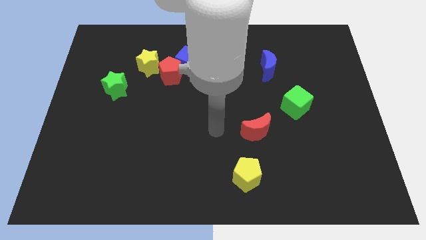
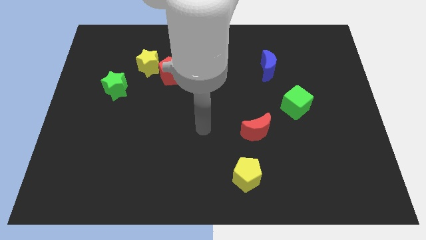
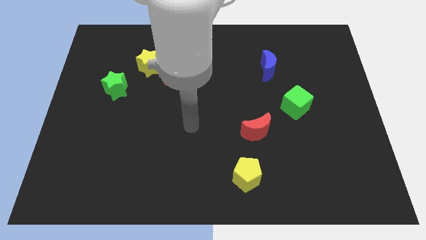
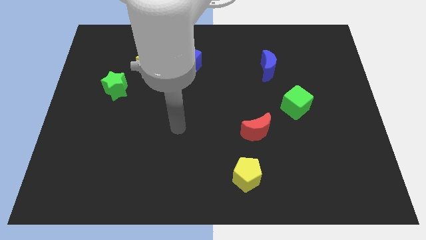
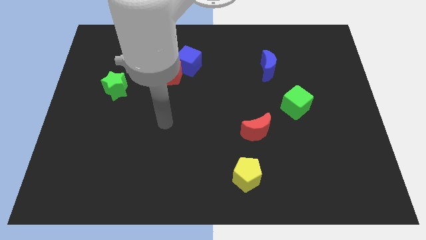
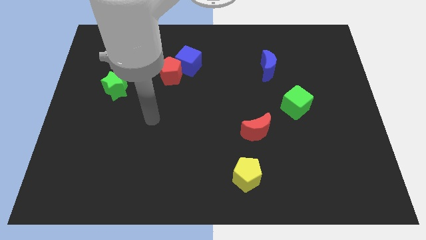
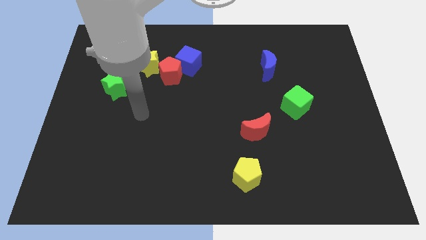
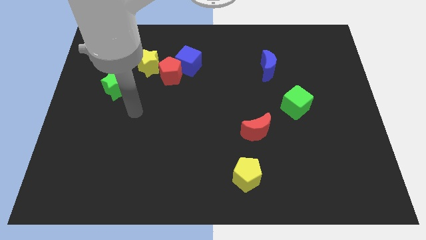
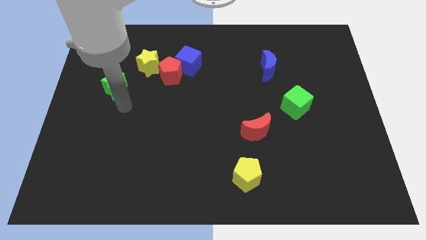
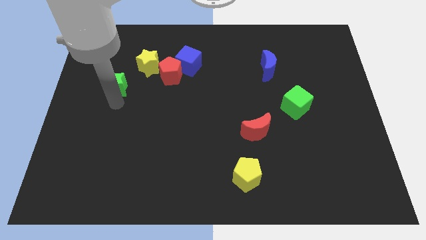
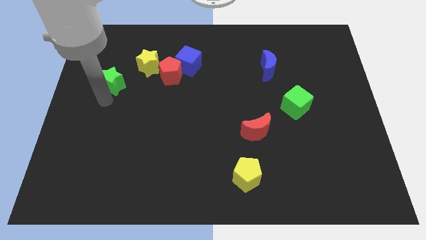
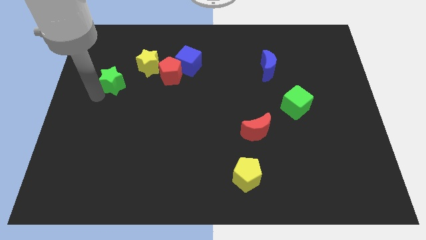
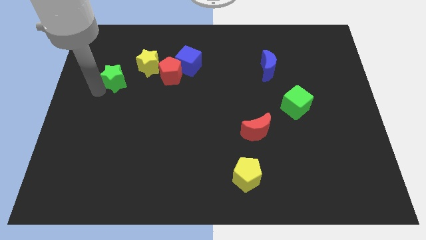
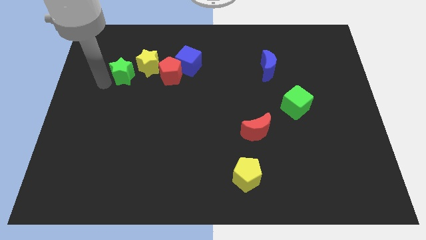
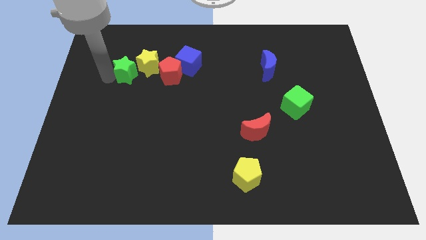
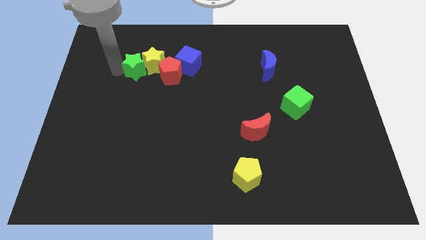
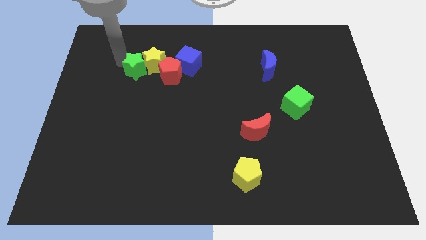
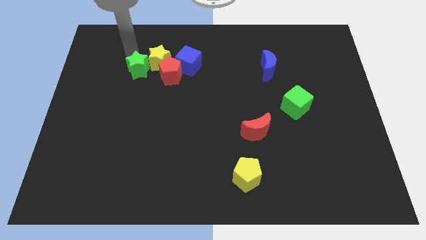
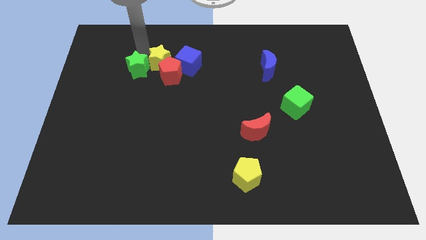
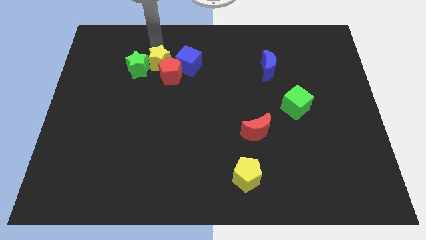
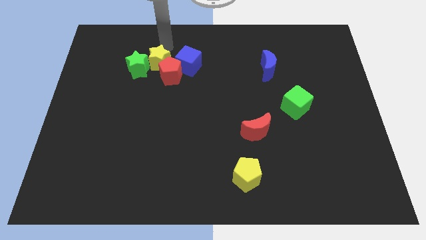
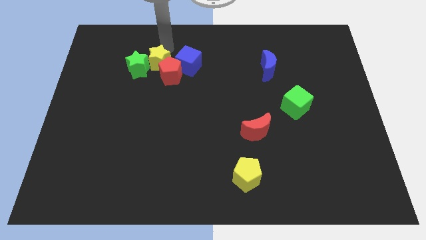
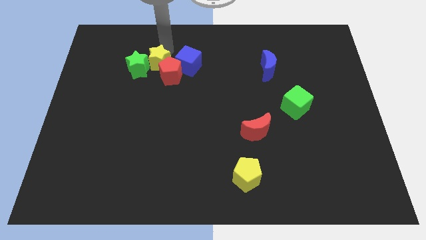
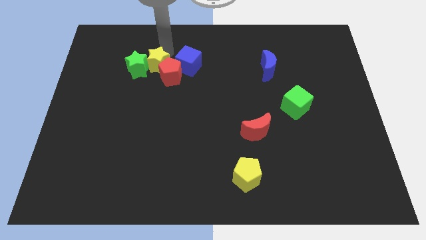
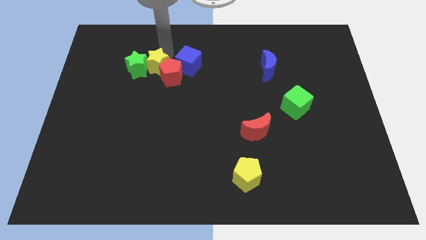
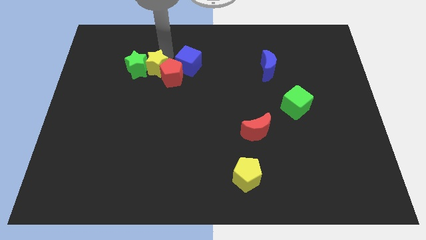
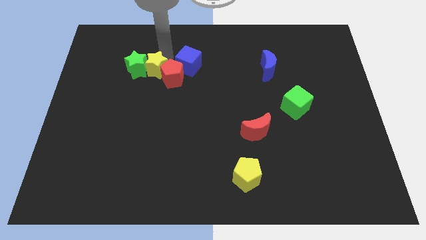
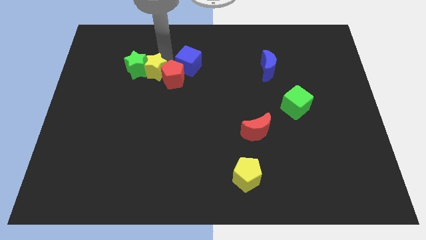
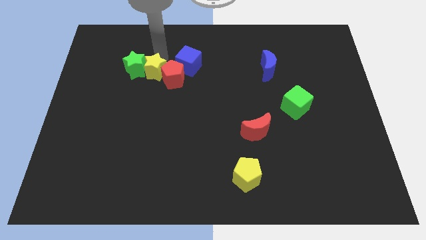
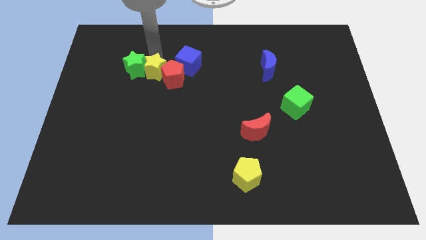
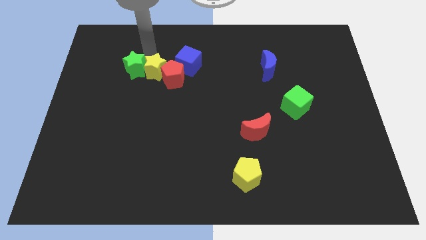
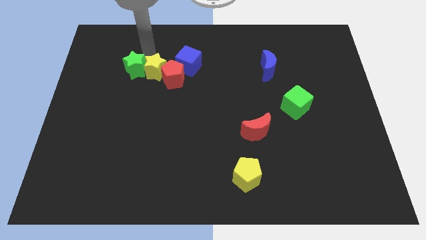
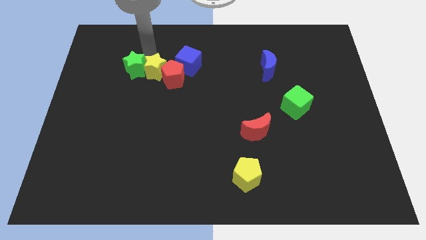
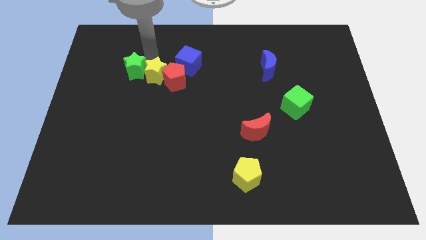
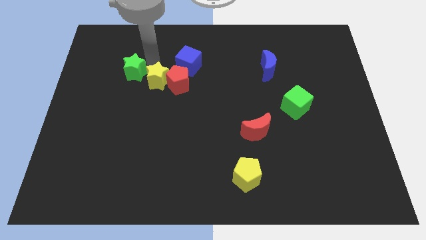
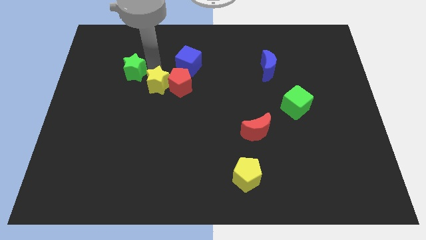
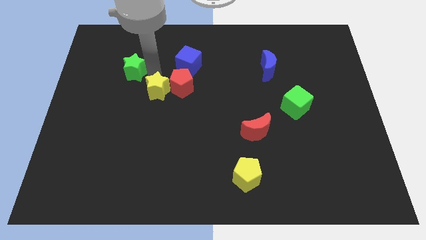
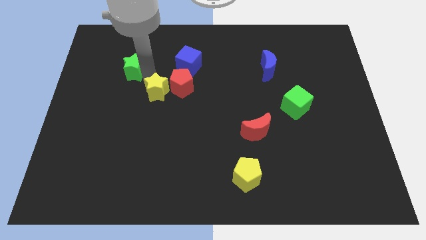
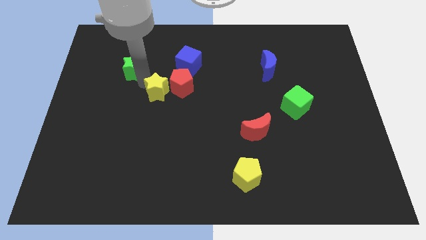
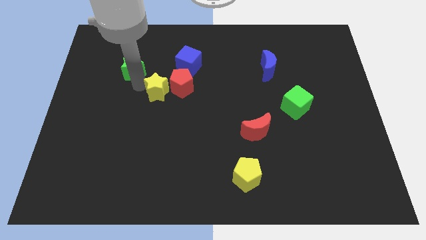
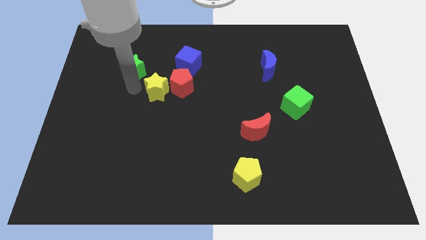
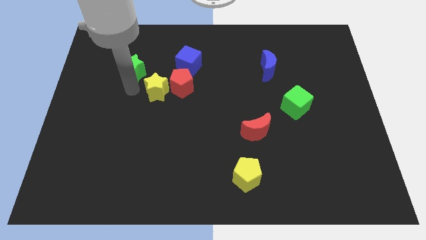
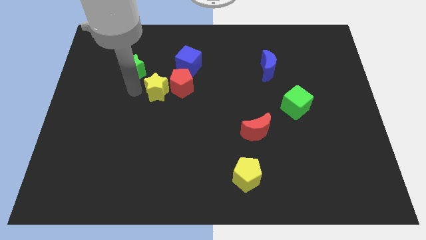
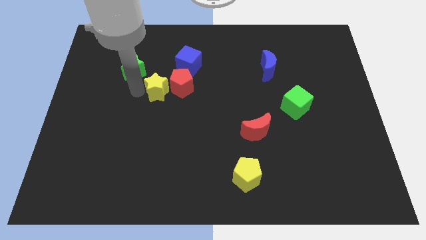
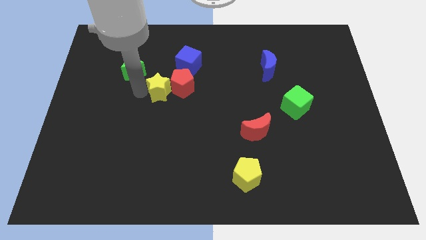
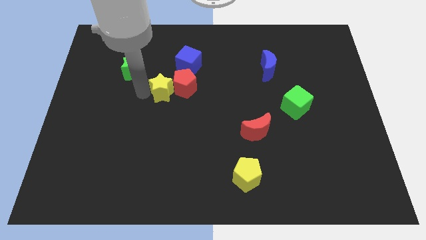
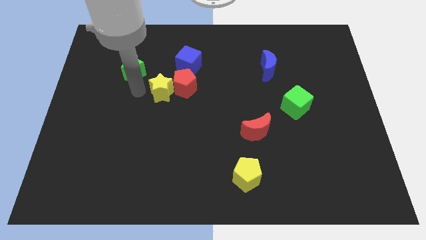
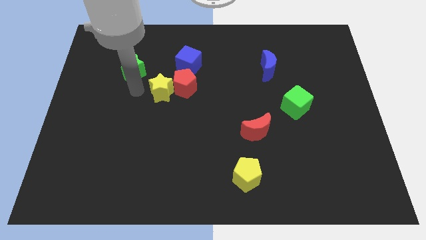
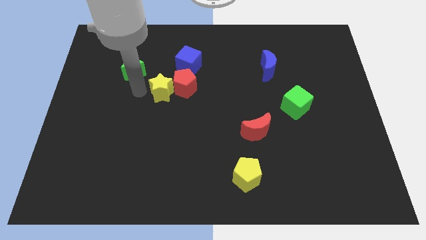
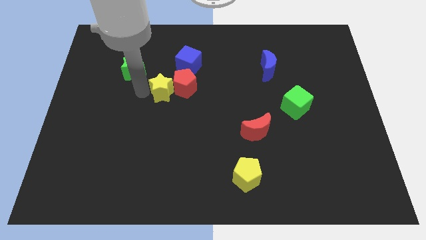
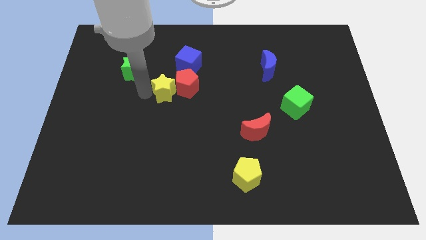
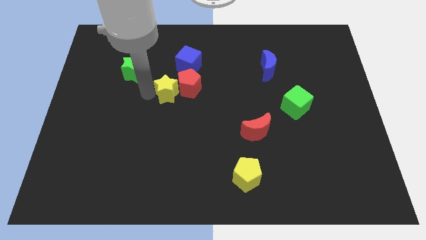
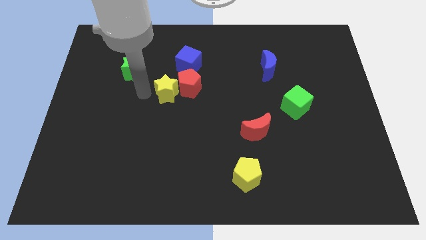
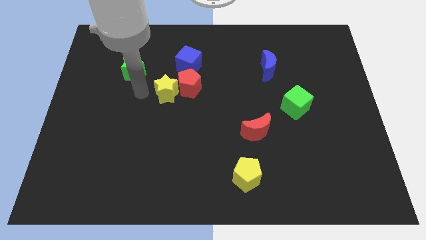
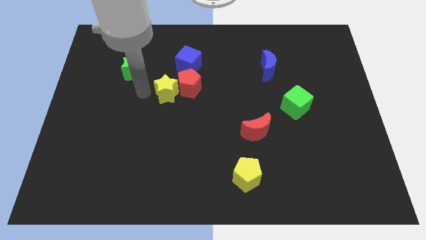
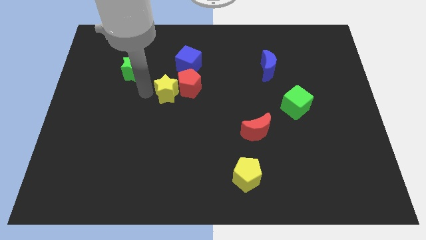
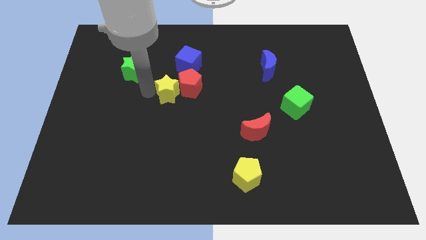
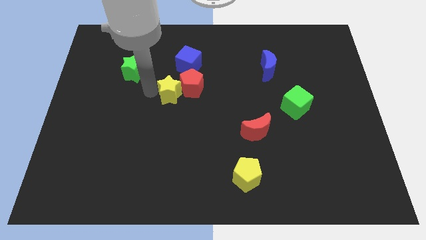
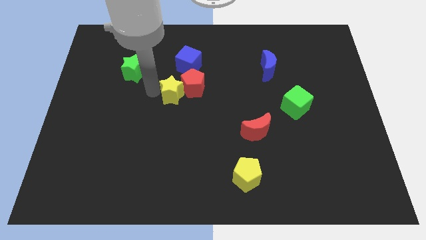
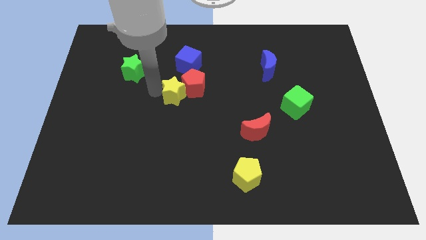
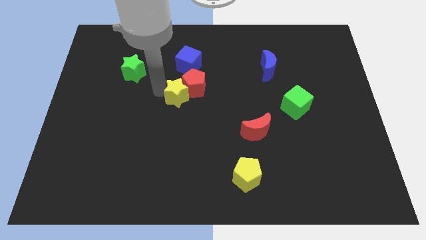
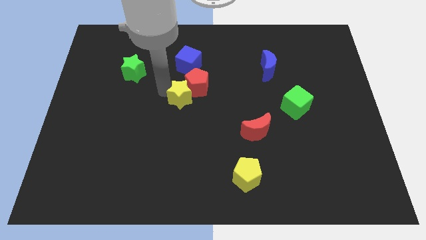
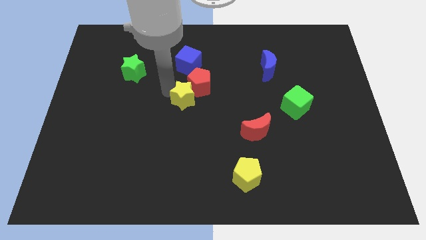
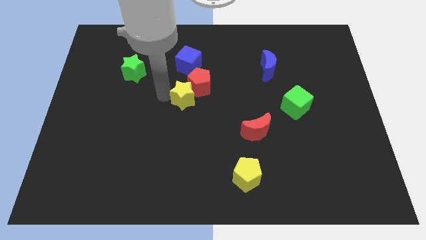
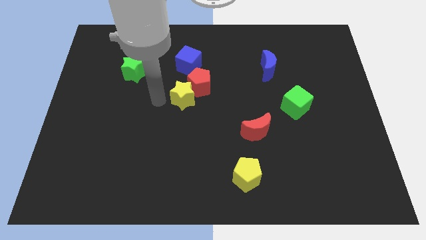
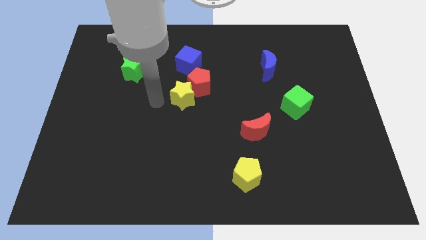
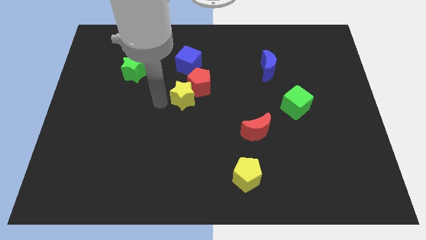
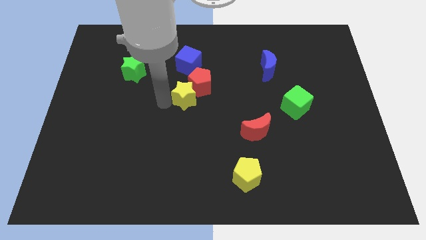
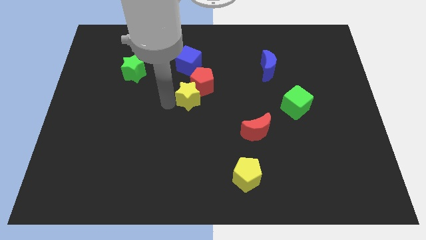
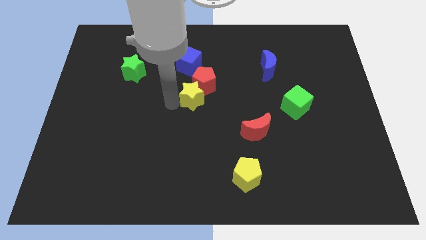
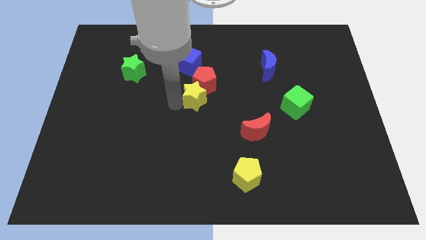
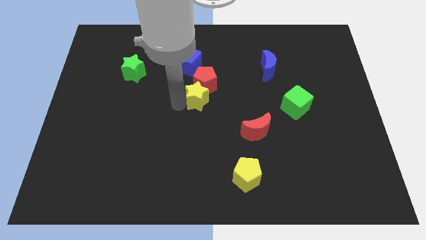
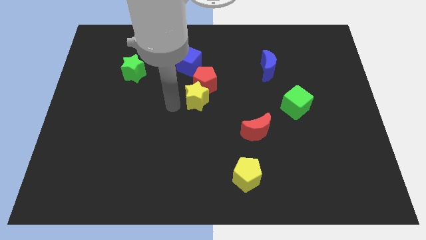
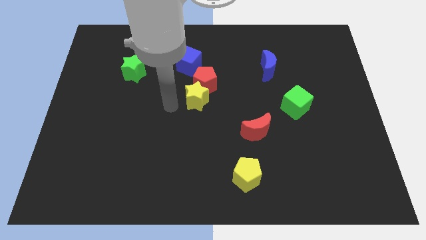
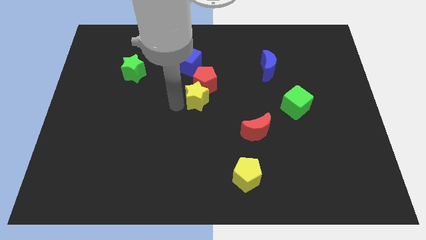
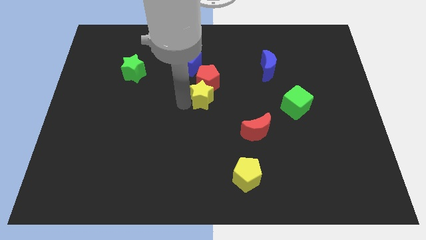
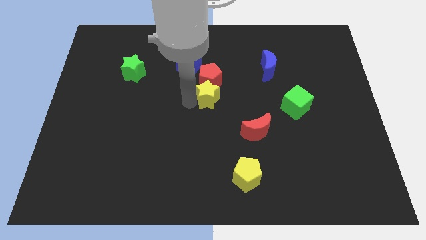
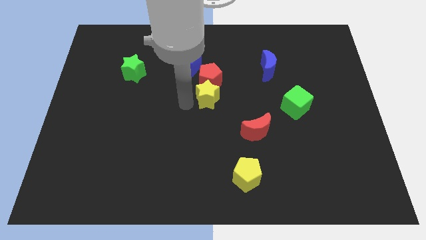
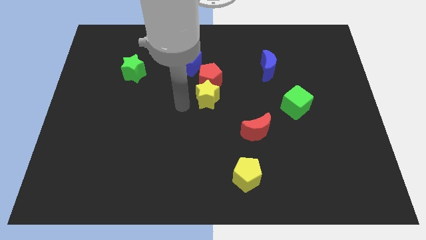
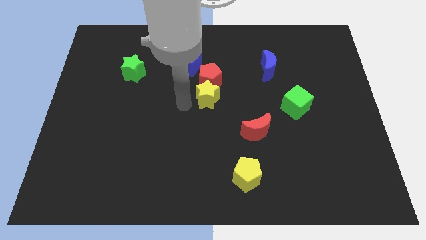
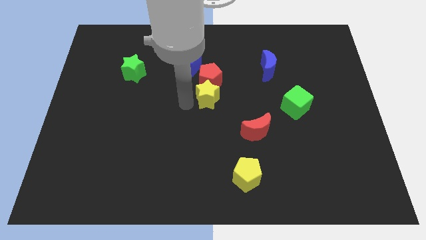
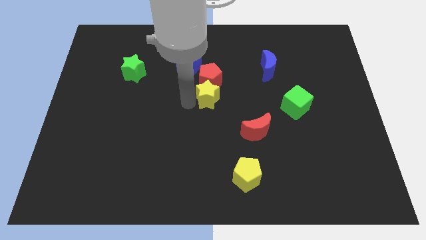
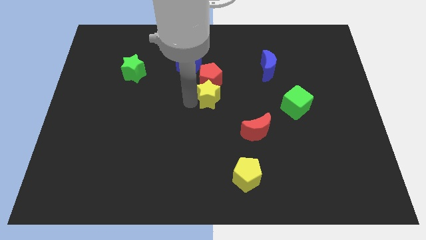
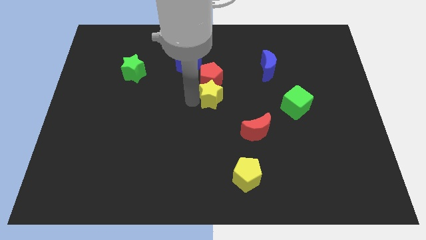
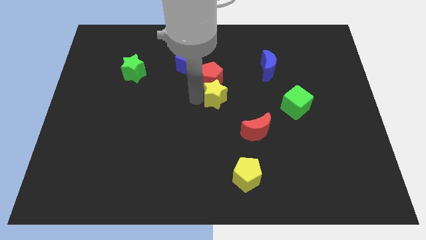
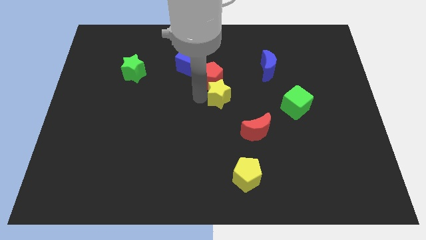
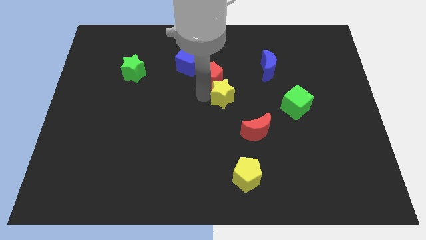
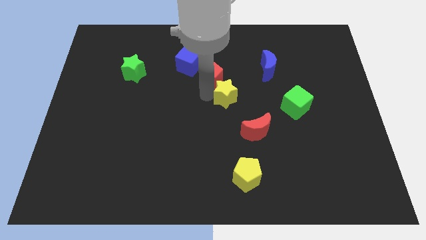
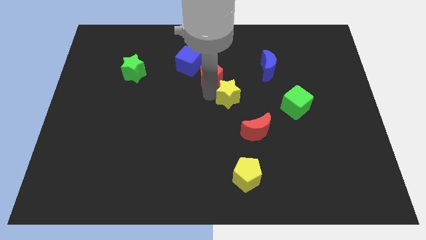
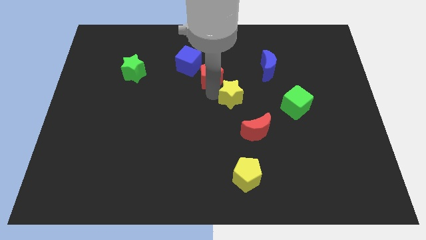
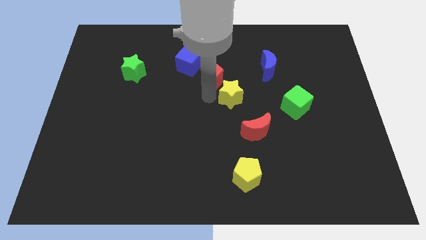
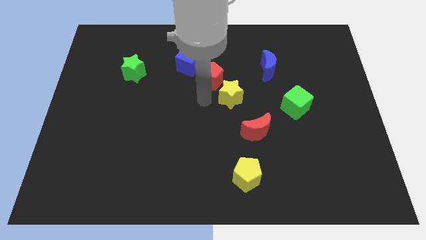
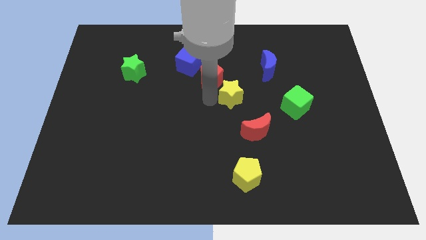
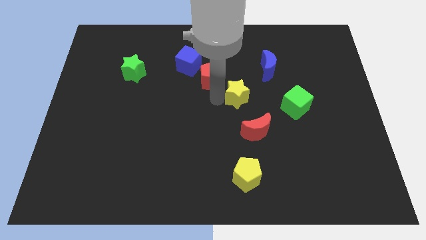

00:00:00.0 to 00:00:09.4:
put the yellow star to the top side of the red moon
